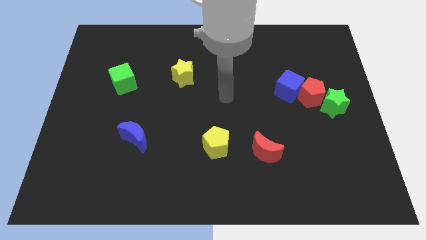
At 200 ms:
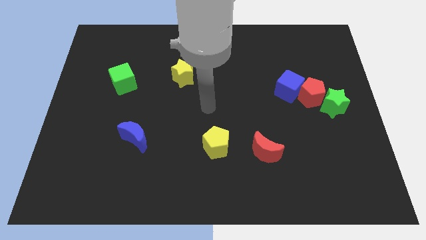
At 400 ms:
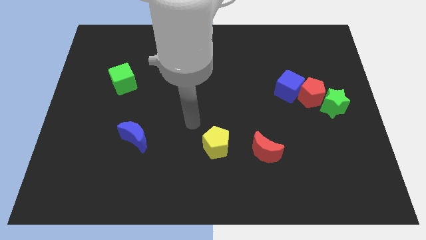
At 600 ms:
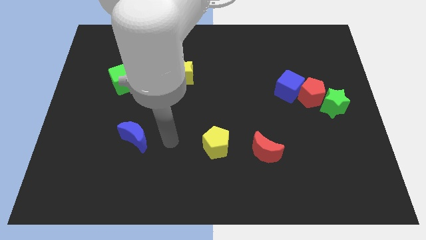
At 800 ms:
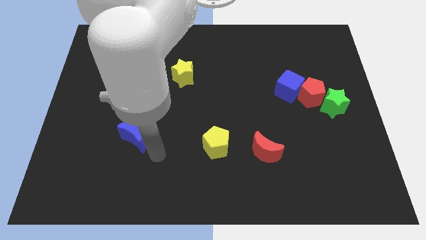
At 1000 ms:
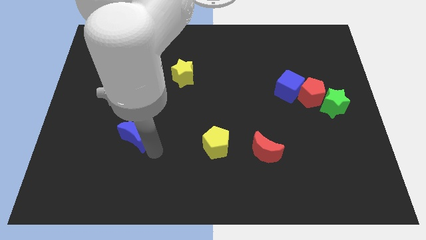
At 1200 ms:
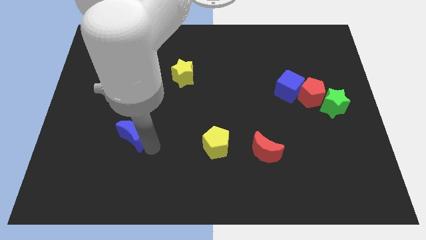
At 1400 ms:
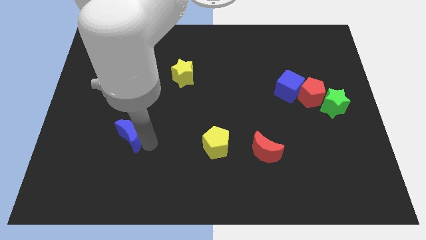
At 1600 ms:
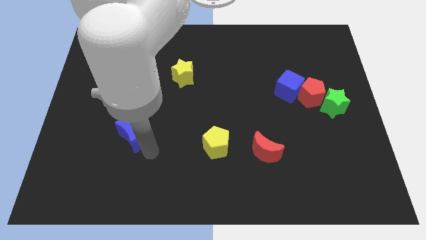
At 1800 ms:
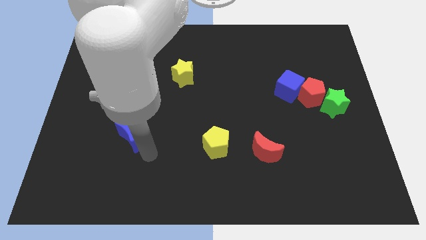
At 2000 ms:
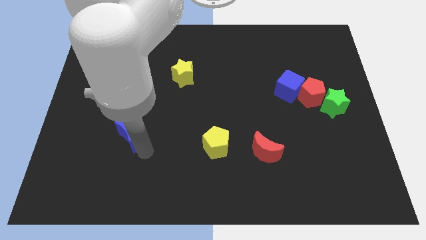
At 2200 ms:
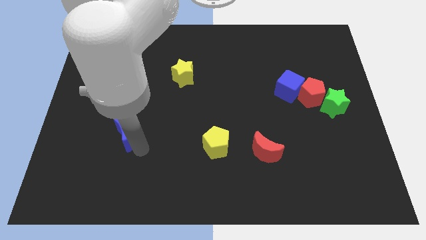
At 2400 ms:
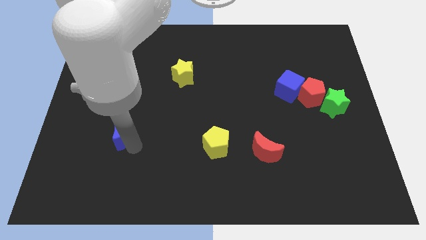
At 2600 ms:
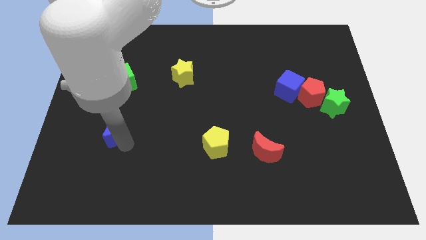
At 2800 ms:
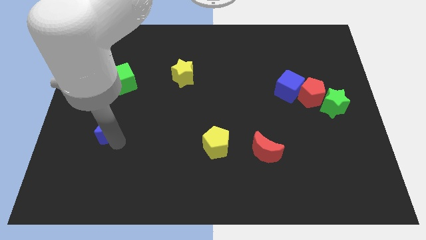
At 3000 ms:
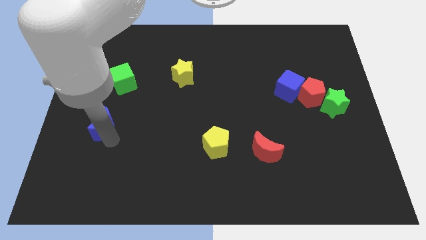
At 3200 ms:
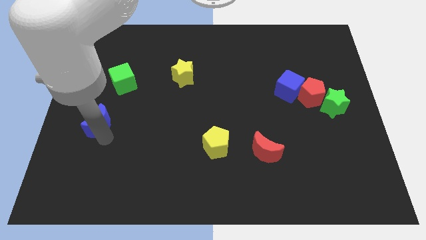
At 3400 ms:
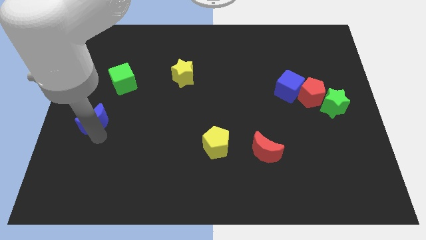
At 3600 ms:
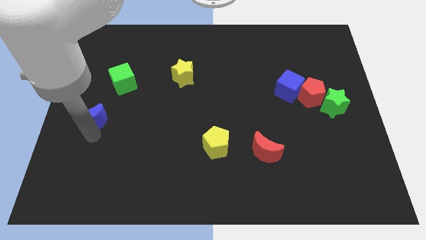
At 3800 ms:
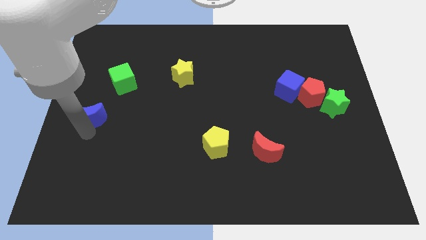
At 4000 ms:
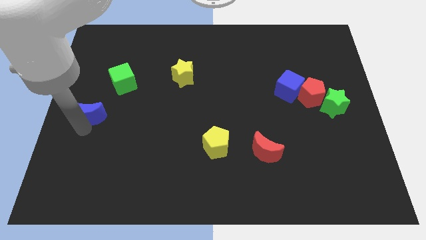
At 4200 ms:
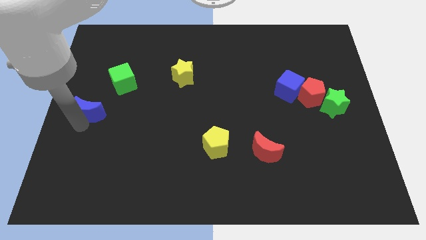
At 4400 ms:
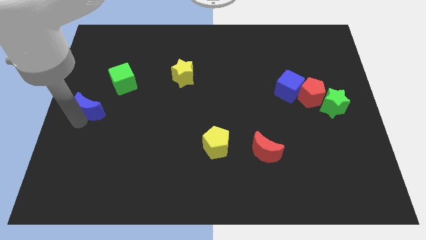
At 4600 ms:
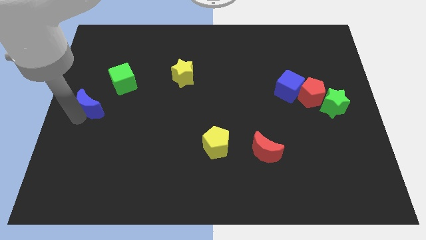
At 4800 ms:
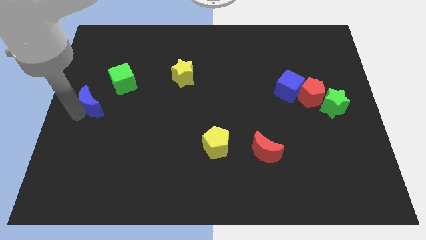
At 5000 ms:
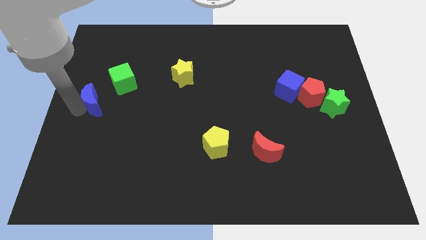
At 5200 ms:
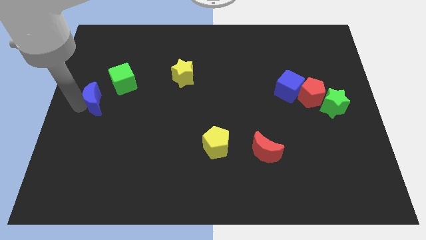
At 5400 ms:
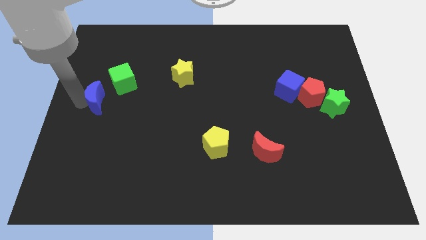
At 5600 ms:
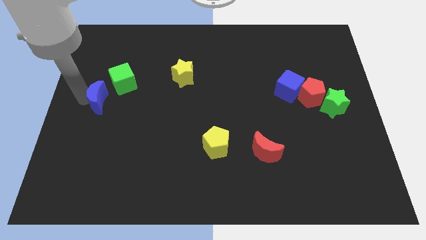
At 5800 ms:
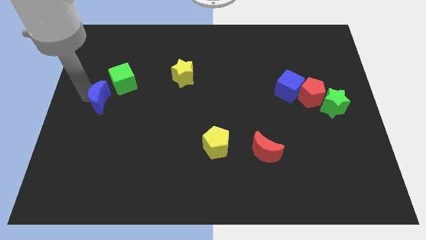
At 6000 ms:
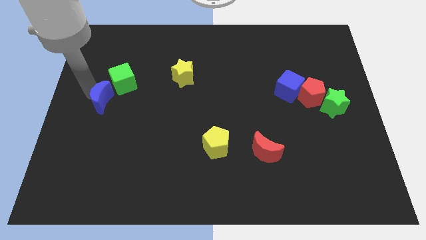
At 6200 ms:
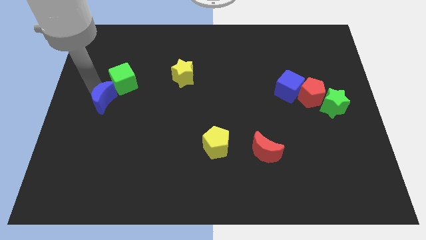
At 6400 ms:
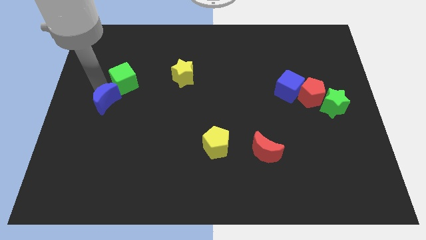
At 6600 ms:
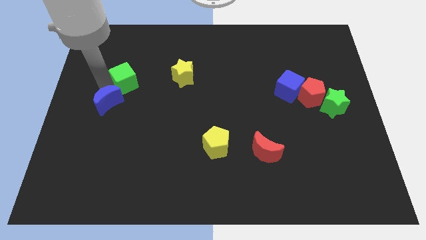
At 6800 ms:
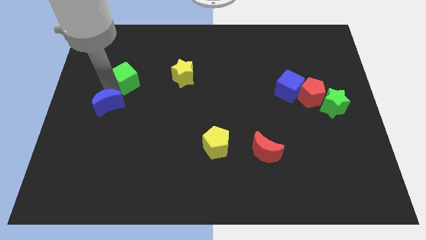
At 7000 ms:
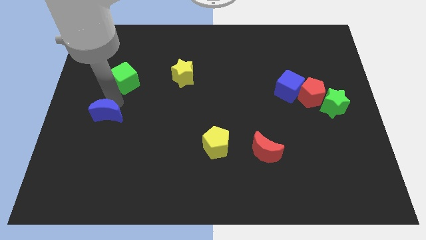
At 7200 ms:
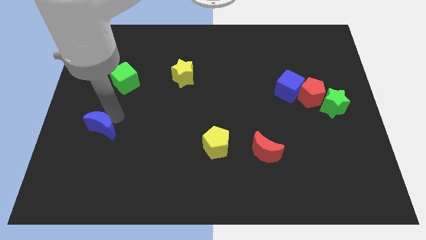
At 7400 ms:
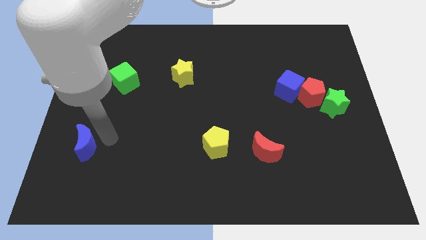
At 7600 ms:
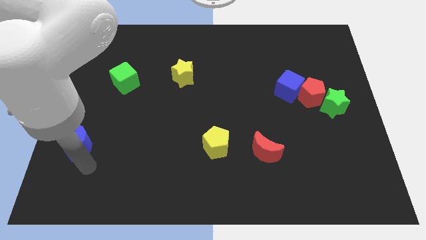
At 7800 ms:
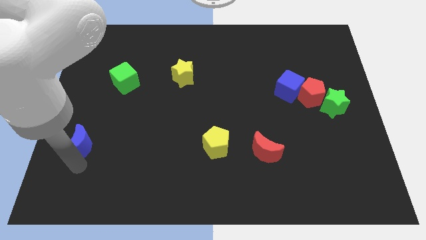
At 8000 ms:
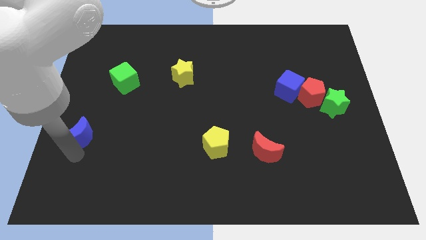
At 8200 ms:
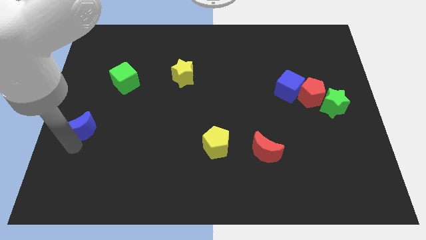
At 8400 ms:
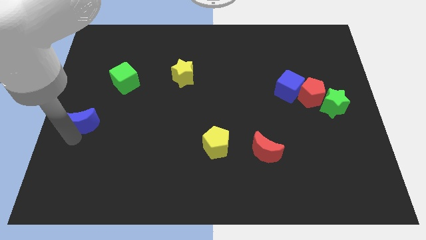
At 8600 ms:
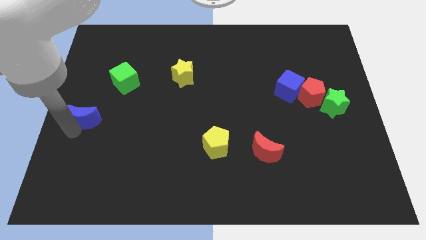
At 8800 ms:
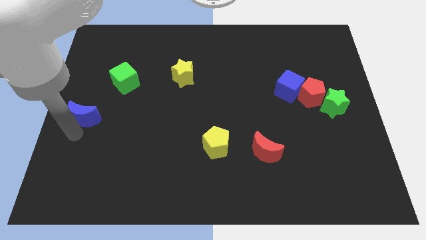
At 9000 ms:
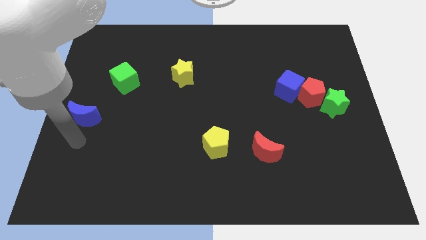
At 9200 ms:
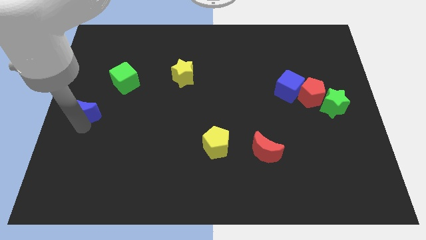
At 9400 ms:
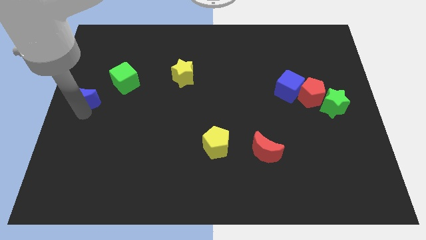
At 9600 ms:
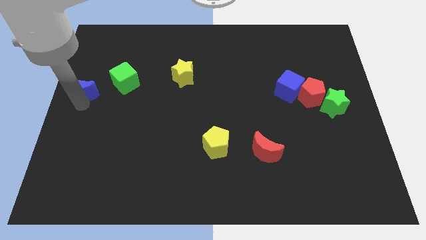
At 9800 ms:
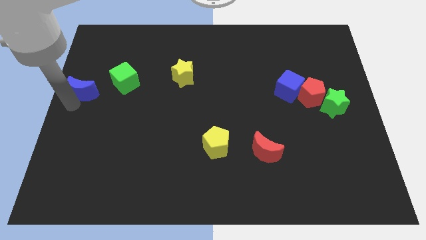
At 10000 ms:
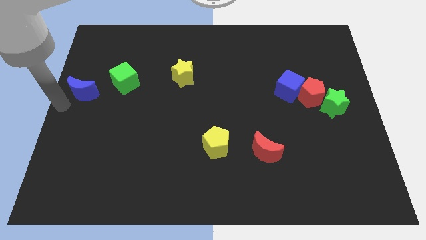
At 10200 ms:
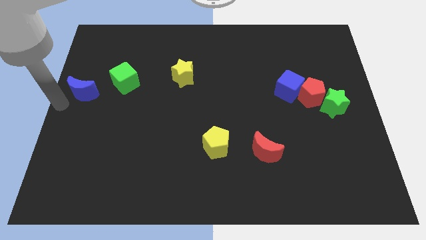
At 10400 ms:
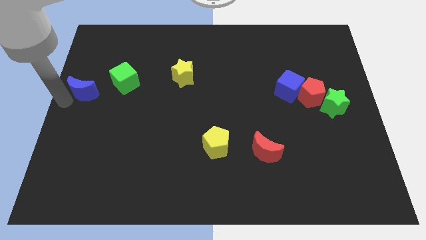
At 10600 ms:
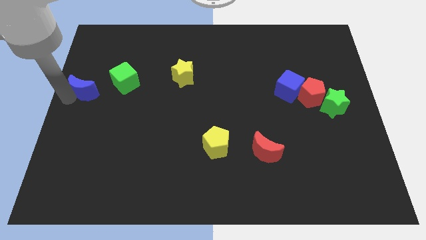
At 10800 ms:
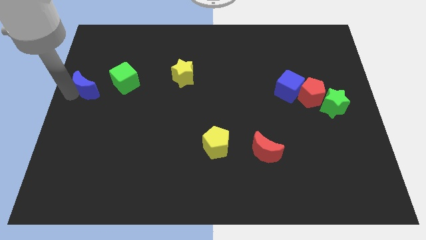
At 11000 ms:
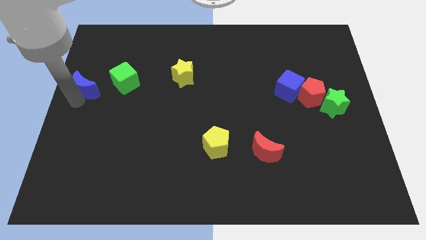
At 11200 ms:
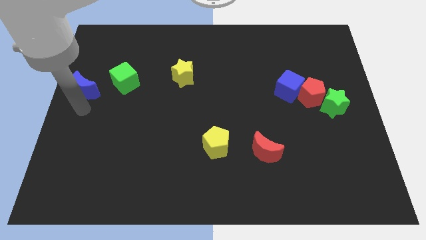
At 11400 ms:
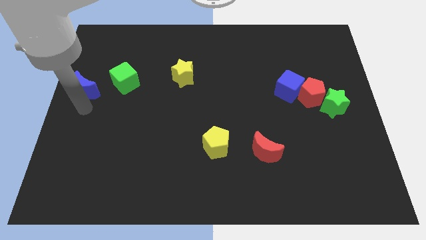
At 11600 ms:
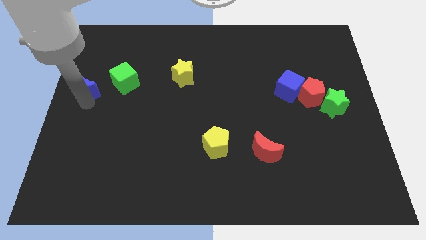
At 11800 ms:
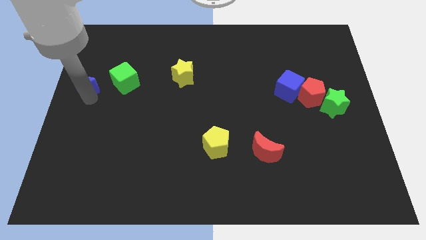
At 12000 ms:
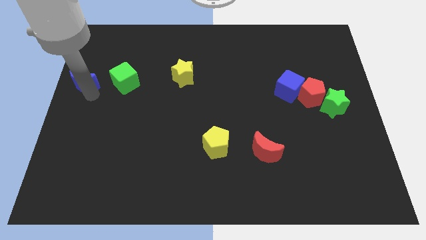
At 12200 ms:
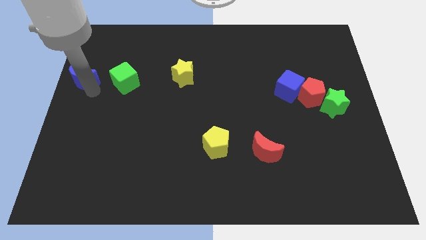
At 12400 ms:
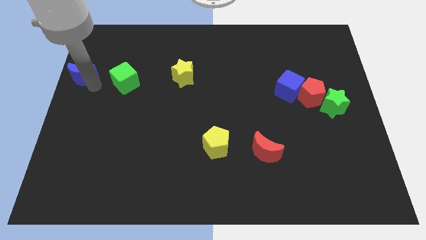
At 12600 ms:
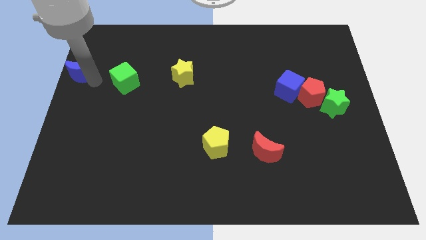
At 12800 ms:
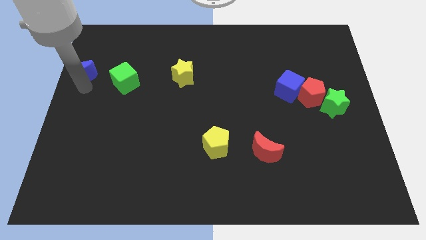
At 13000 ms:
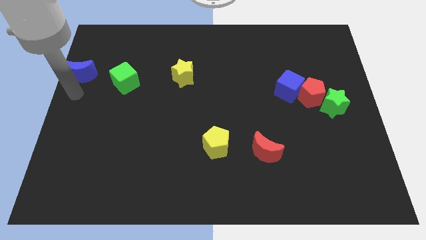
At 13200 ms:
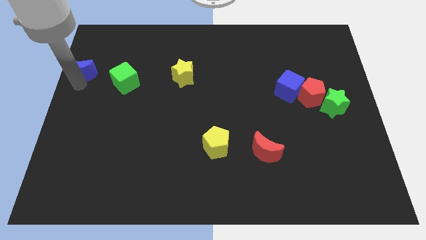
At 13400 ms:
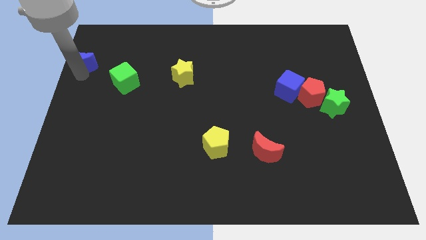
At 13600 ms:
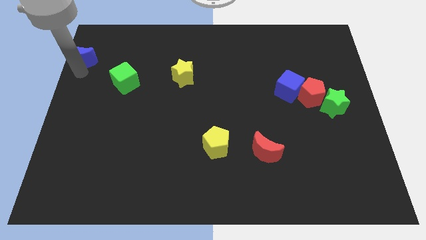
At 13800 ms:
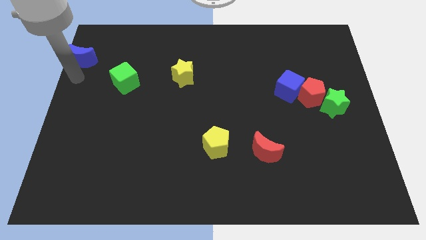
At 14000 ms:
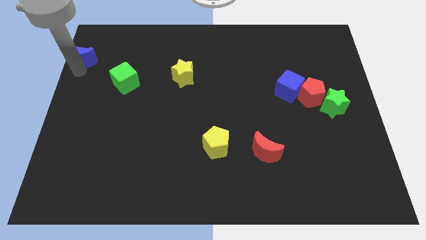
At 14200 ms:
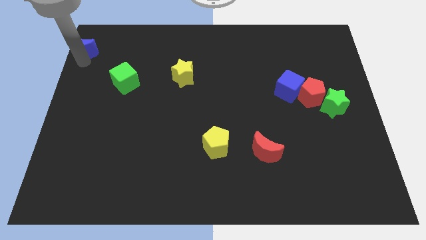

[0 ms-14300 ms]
slide the blue moon to the top left of the board

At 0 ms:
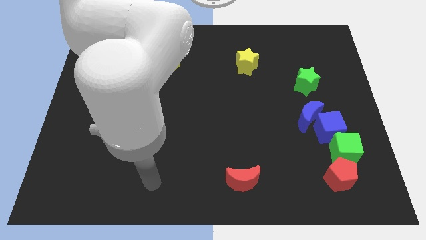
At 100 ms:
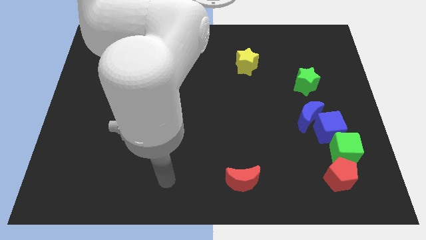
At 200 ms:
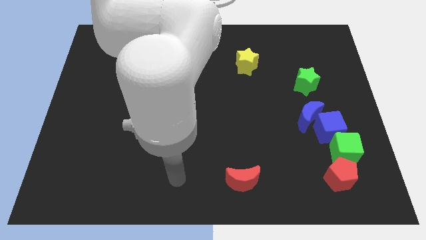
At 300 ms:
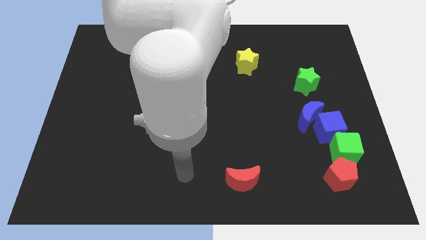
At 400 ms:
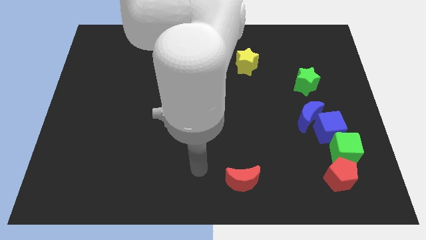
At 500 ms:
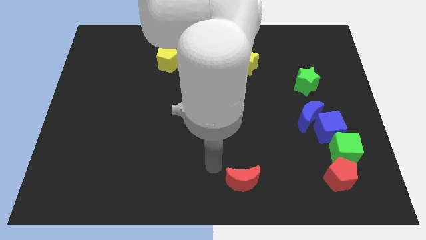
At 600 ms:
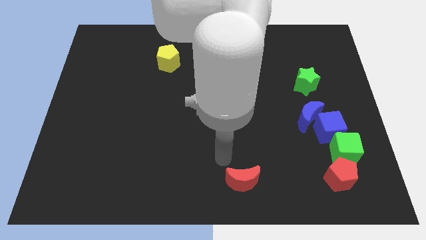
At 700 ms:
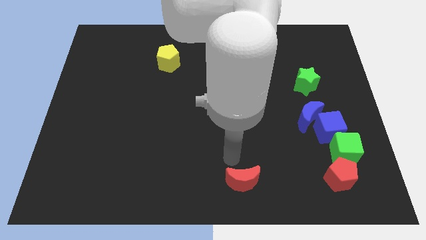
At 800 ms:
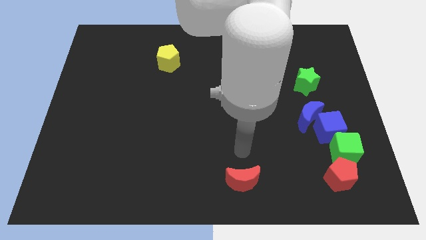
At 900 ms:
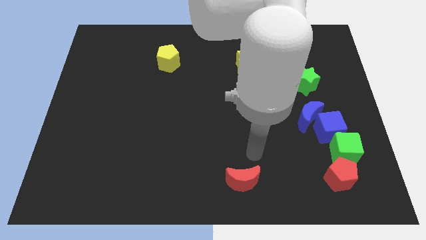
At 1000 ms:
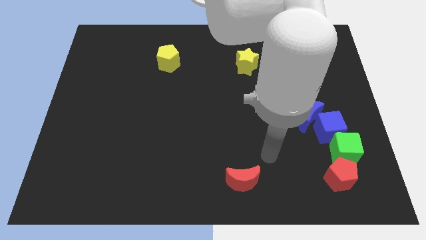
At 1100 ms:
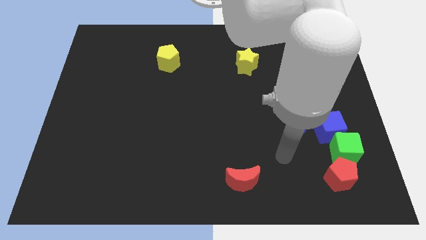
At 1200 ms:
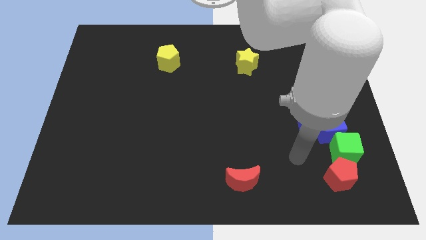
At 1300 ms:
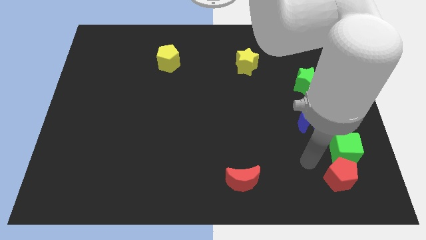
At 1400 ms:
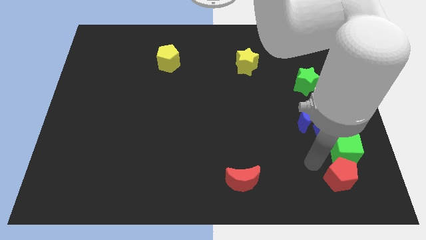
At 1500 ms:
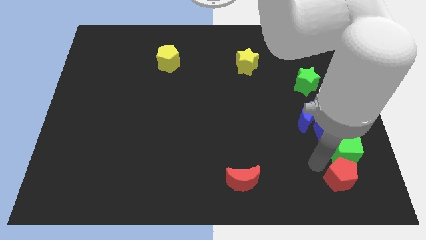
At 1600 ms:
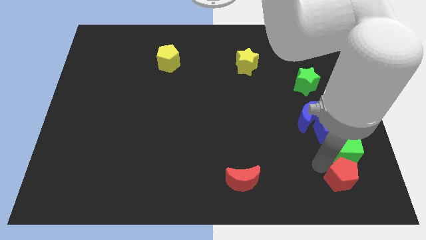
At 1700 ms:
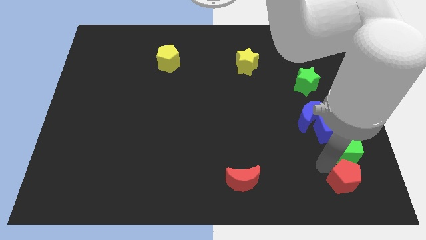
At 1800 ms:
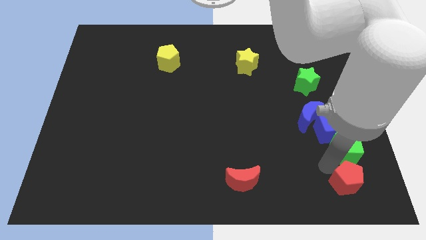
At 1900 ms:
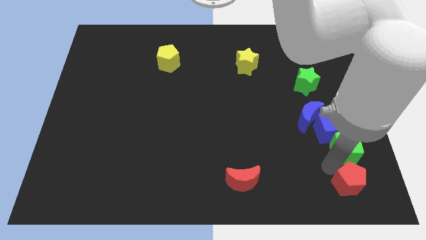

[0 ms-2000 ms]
slide the red pentagon to the bottom right of the board
